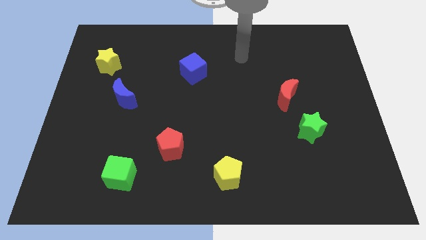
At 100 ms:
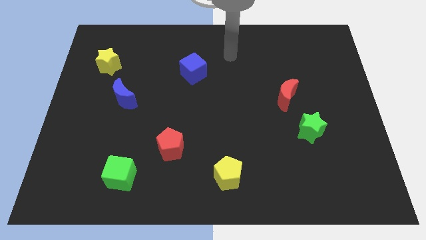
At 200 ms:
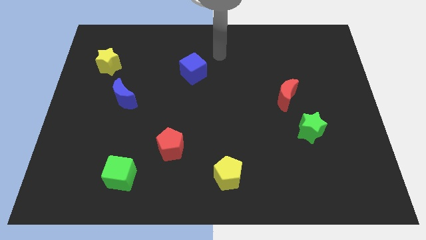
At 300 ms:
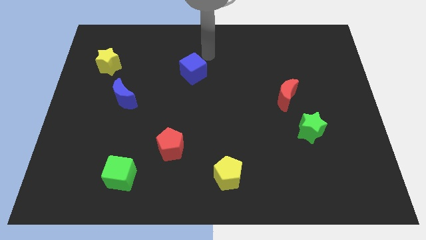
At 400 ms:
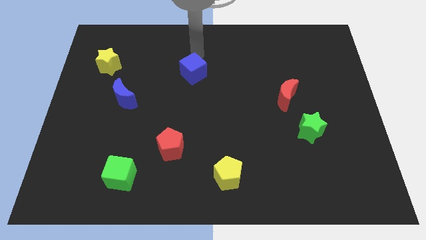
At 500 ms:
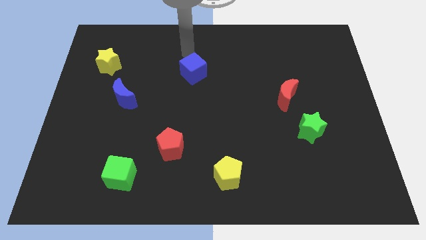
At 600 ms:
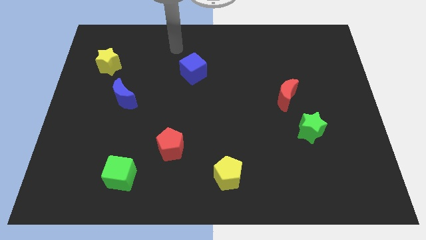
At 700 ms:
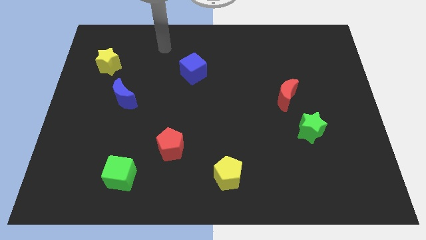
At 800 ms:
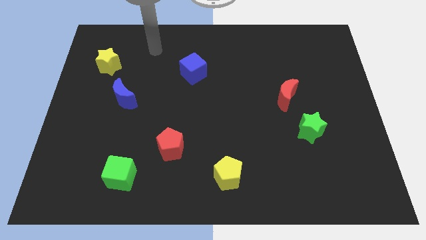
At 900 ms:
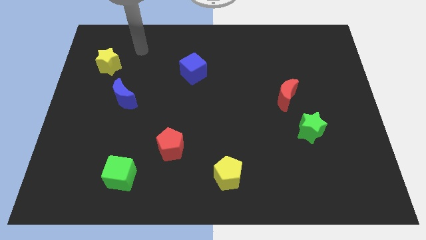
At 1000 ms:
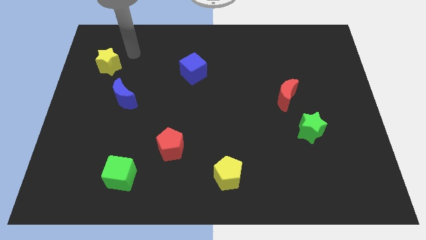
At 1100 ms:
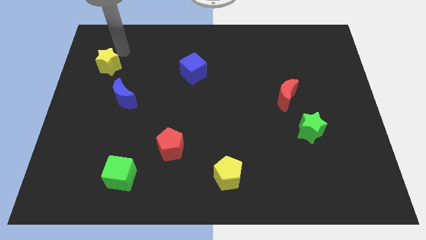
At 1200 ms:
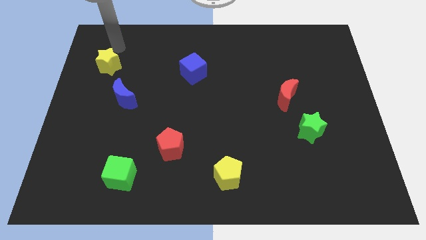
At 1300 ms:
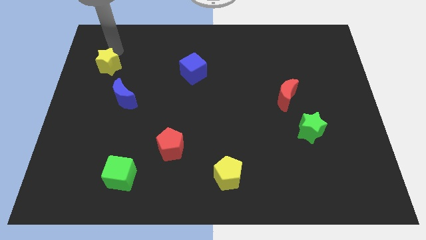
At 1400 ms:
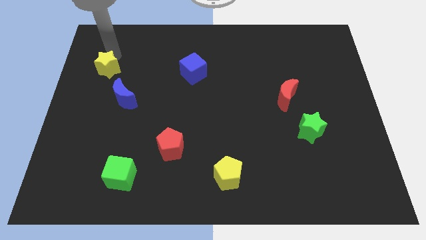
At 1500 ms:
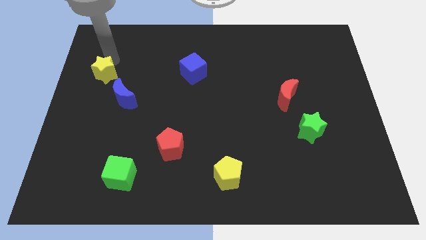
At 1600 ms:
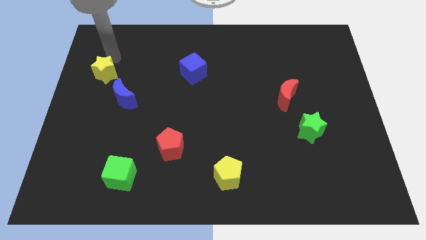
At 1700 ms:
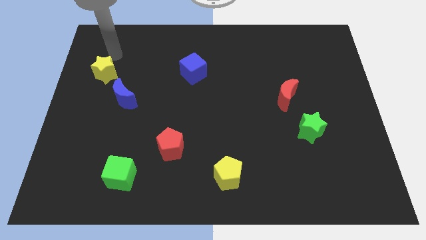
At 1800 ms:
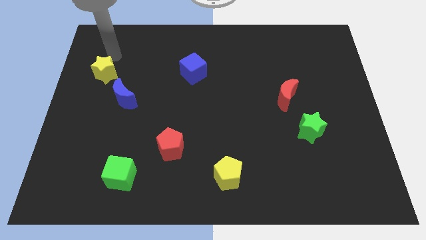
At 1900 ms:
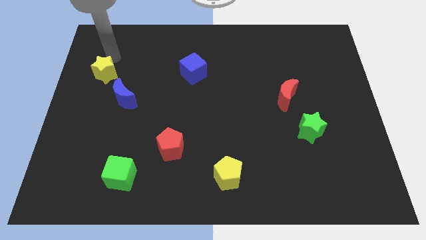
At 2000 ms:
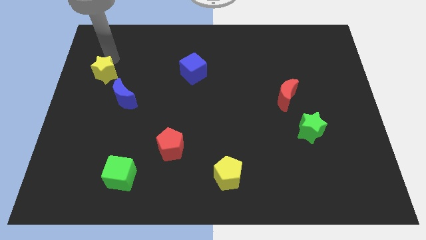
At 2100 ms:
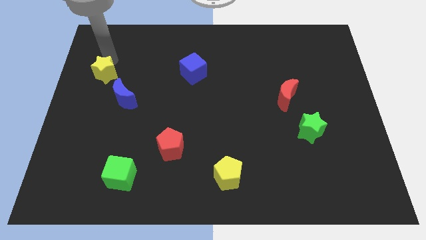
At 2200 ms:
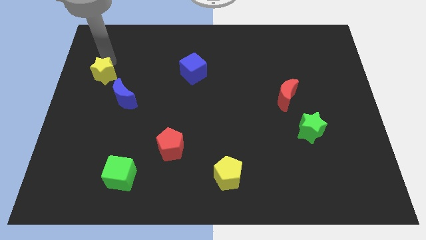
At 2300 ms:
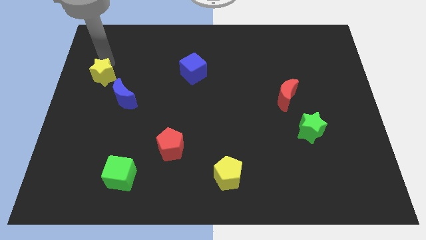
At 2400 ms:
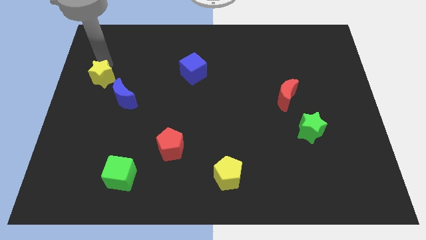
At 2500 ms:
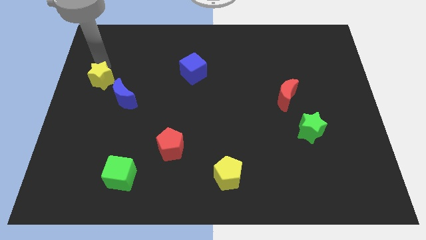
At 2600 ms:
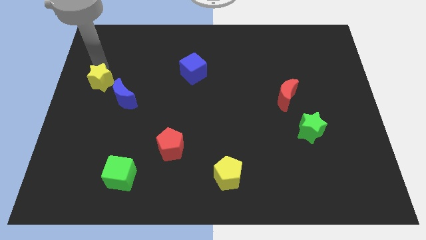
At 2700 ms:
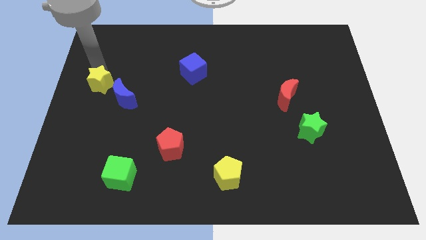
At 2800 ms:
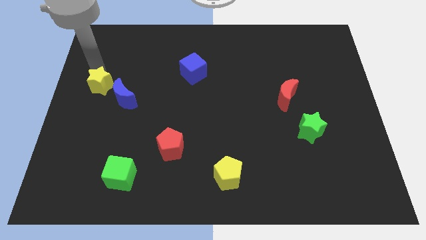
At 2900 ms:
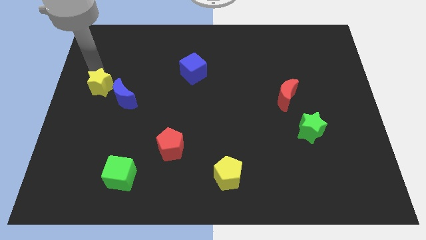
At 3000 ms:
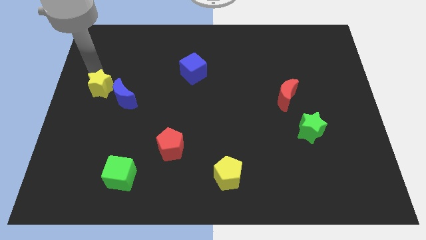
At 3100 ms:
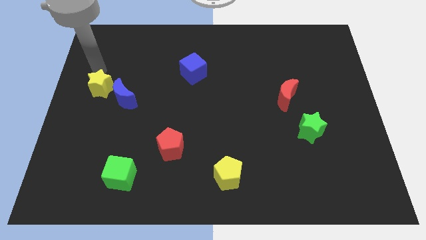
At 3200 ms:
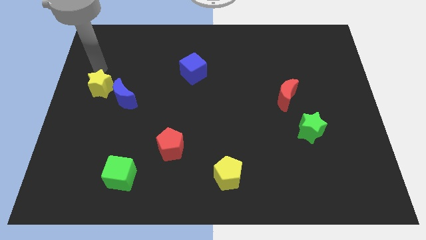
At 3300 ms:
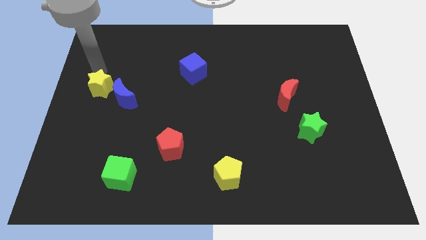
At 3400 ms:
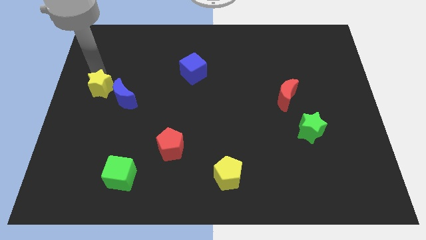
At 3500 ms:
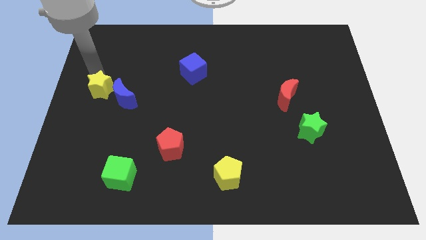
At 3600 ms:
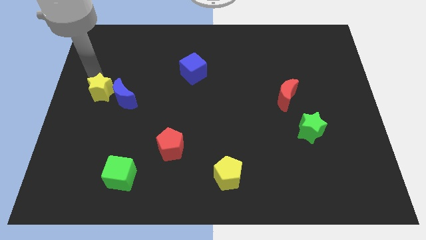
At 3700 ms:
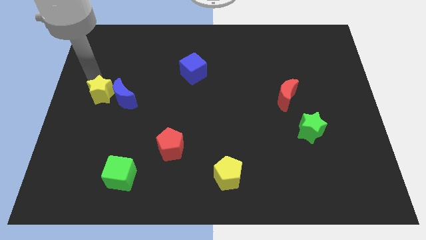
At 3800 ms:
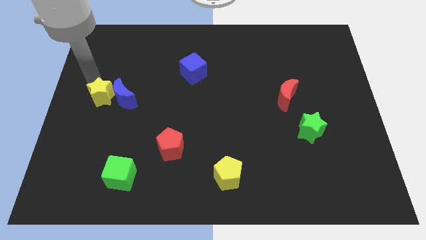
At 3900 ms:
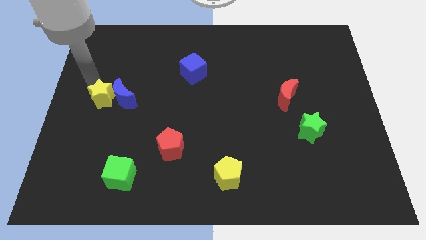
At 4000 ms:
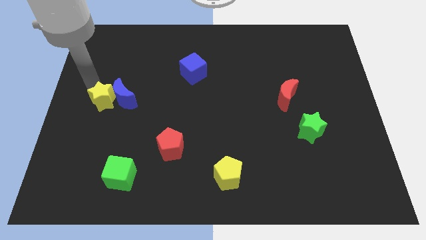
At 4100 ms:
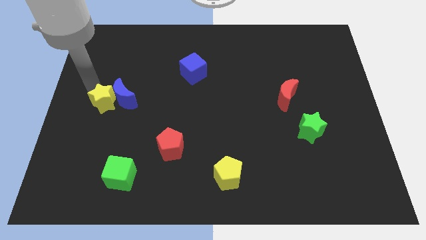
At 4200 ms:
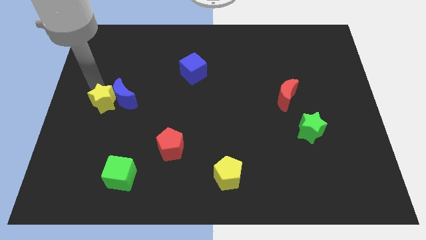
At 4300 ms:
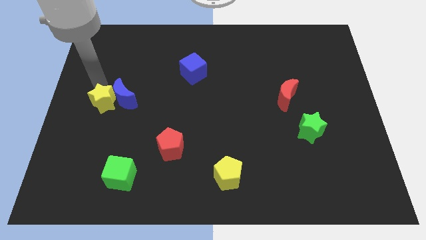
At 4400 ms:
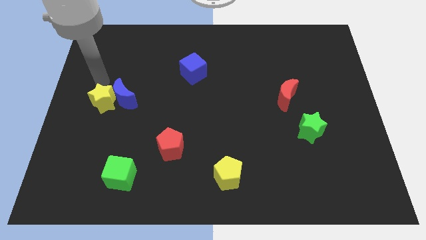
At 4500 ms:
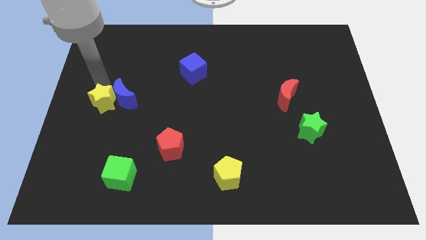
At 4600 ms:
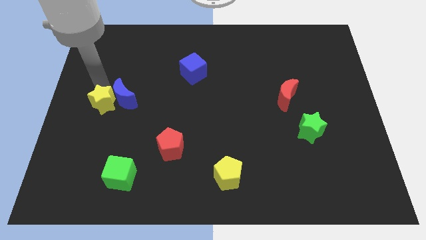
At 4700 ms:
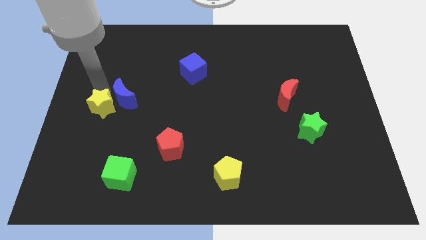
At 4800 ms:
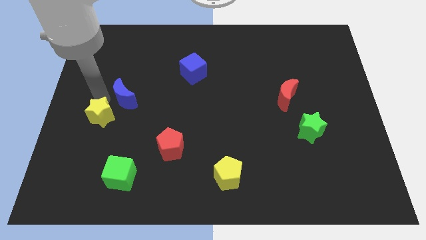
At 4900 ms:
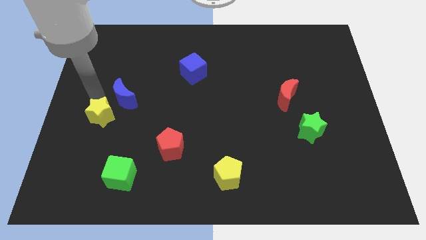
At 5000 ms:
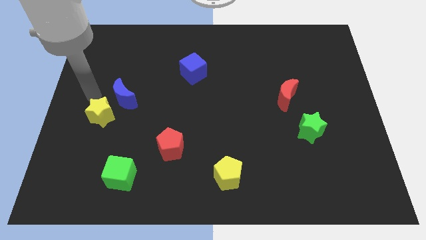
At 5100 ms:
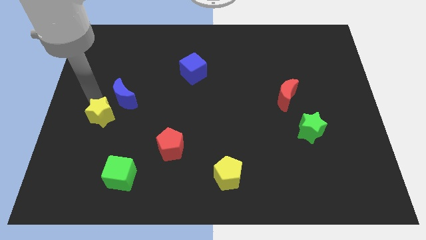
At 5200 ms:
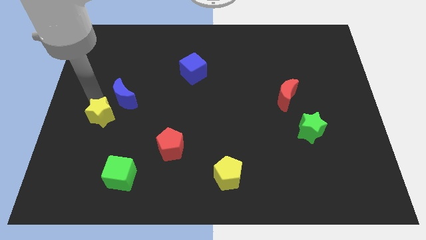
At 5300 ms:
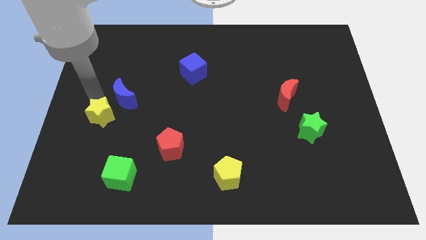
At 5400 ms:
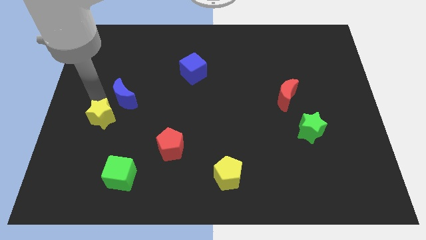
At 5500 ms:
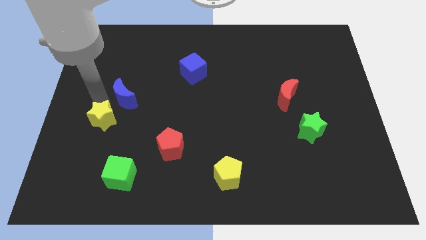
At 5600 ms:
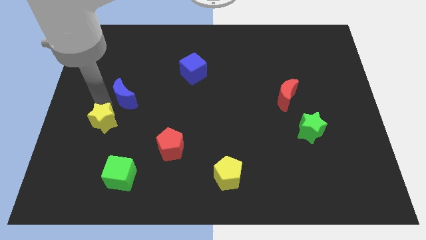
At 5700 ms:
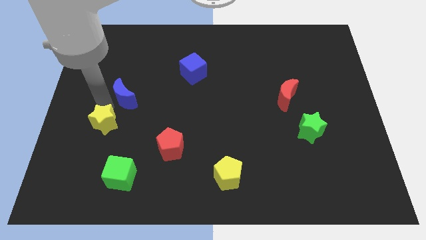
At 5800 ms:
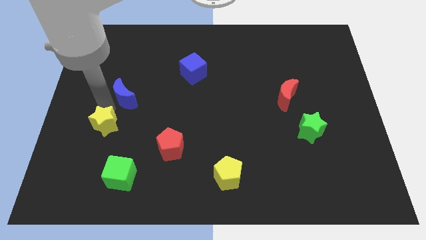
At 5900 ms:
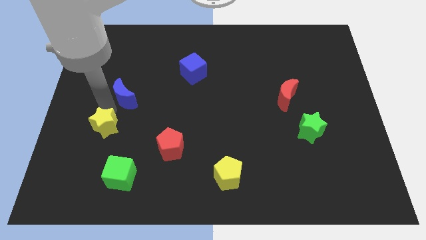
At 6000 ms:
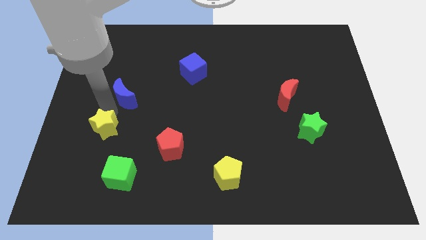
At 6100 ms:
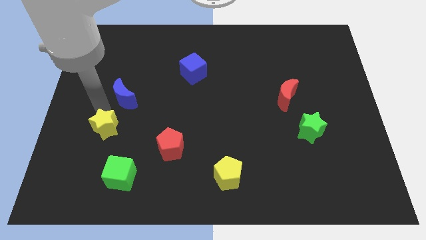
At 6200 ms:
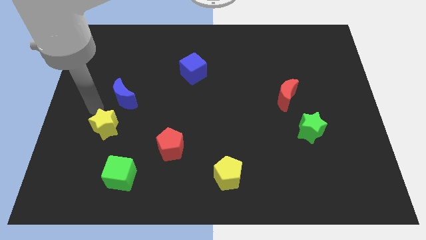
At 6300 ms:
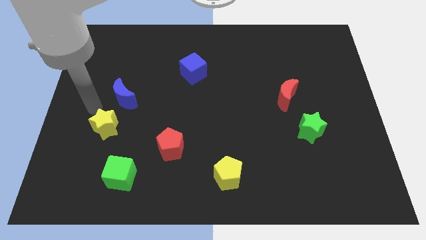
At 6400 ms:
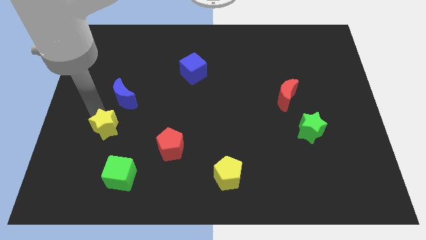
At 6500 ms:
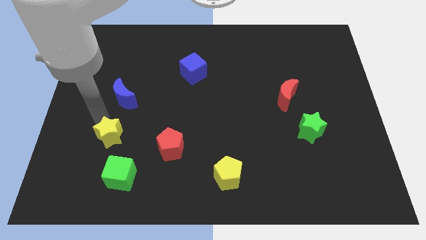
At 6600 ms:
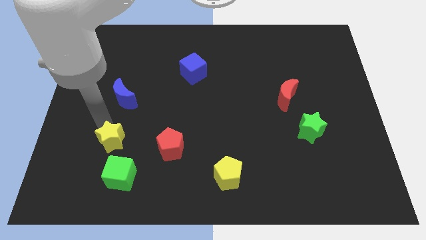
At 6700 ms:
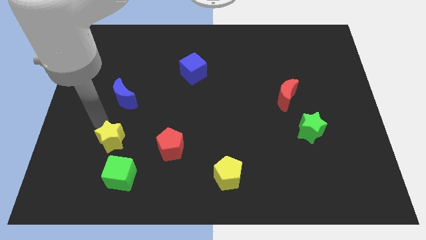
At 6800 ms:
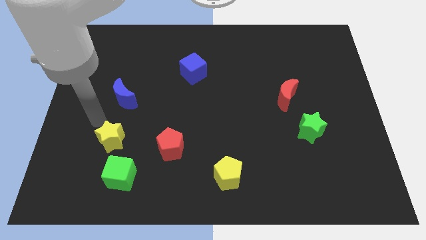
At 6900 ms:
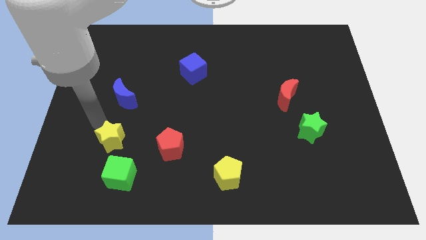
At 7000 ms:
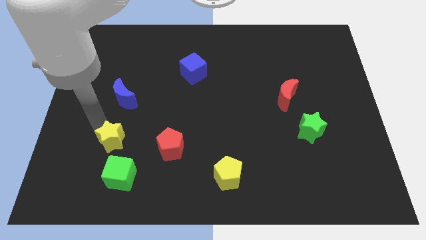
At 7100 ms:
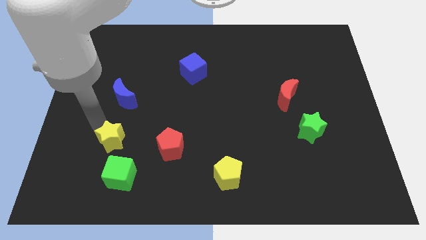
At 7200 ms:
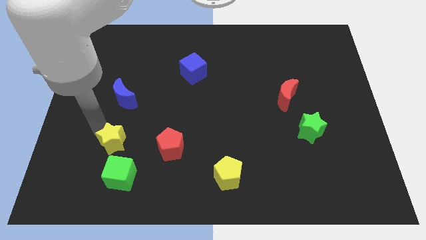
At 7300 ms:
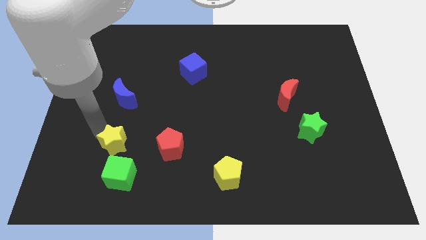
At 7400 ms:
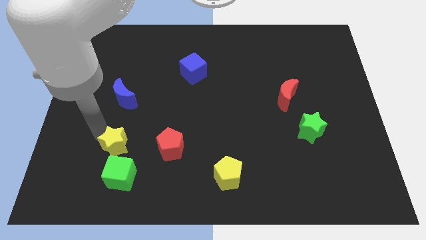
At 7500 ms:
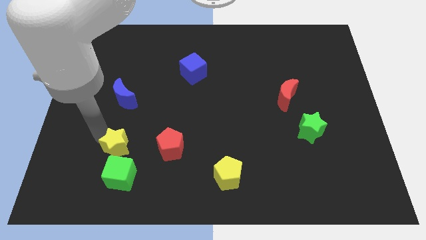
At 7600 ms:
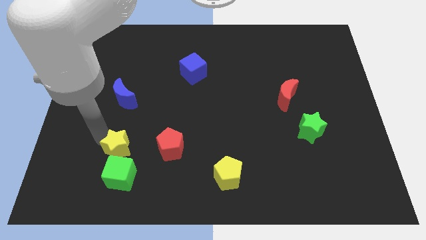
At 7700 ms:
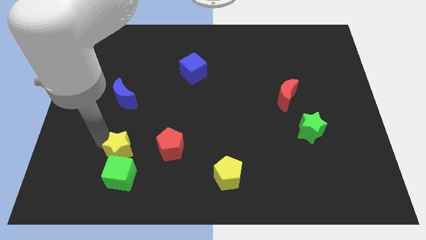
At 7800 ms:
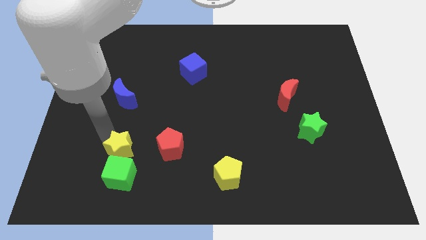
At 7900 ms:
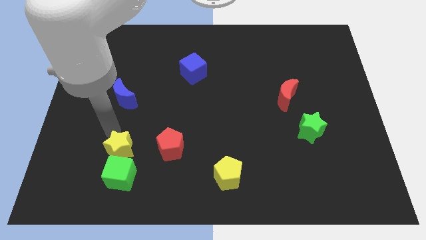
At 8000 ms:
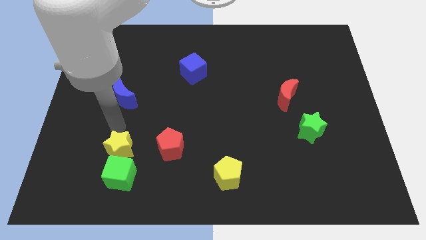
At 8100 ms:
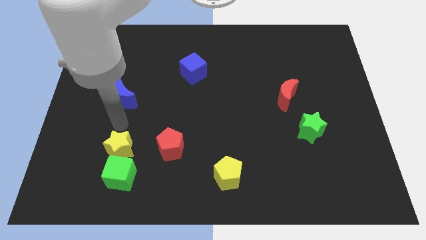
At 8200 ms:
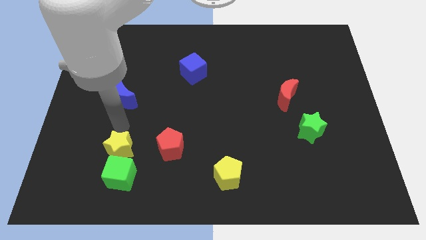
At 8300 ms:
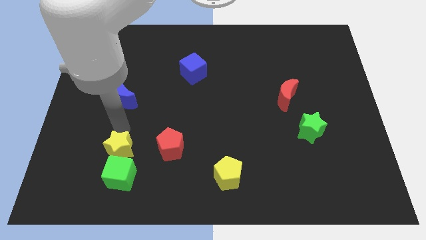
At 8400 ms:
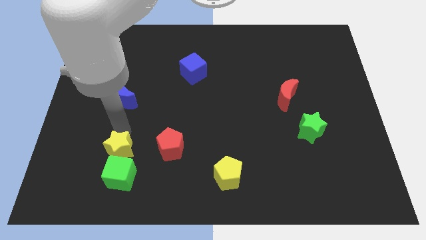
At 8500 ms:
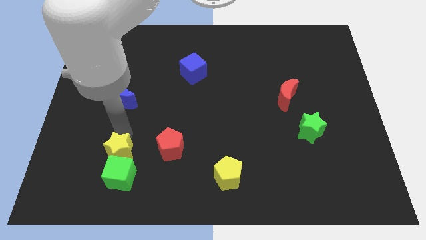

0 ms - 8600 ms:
slide the yellow star close to the green cube
